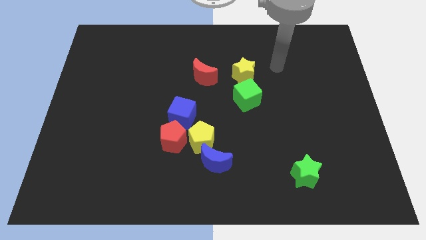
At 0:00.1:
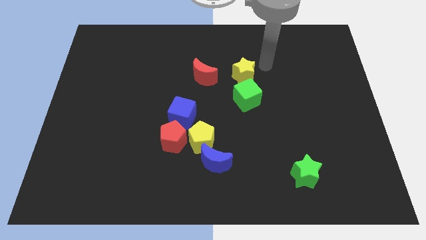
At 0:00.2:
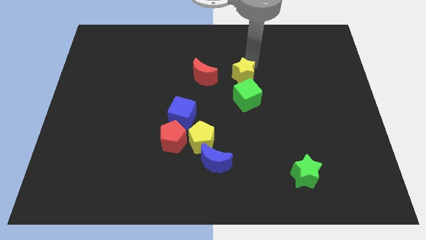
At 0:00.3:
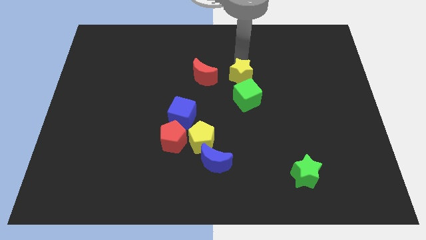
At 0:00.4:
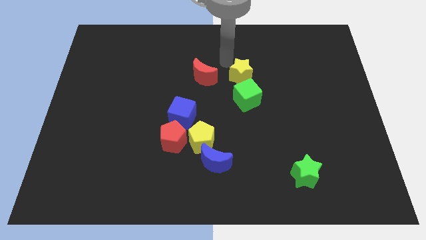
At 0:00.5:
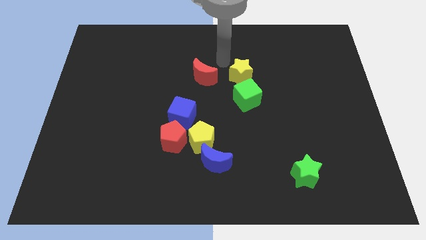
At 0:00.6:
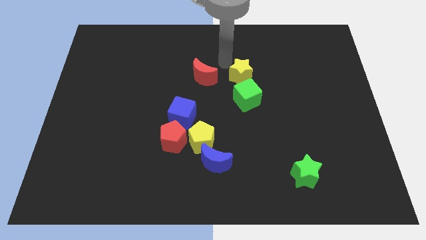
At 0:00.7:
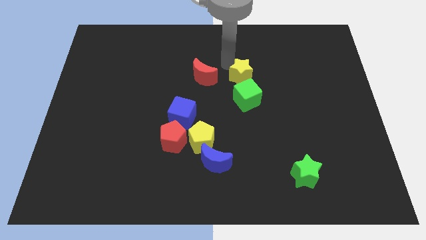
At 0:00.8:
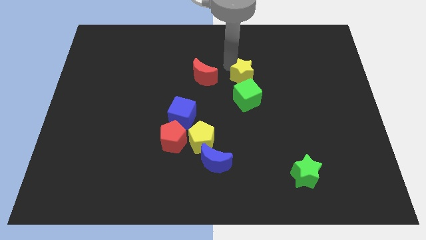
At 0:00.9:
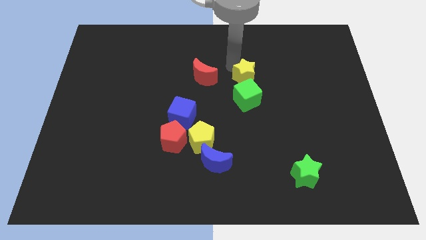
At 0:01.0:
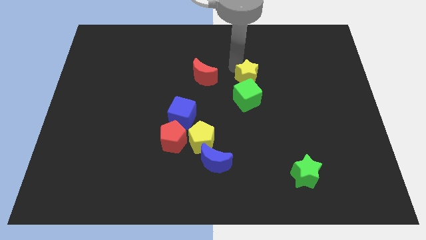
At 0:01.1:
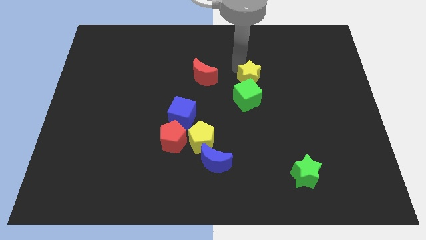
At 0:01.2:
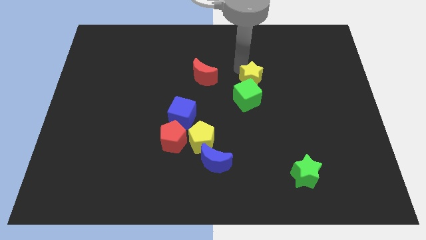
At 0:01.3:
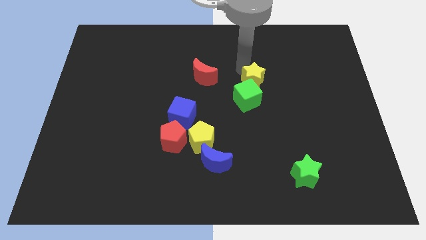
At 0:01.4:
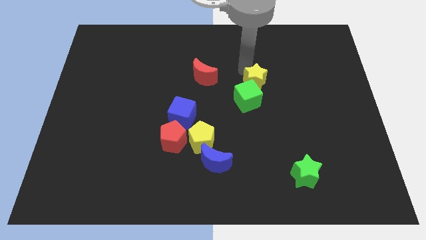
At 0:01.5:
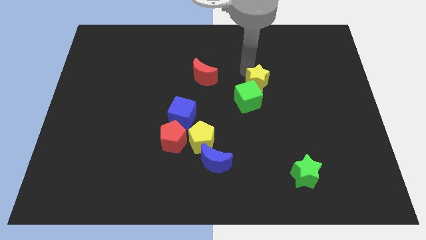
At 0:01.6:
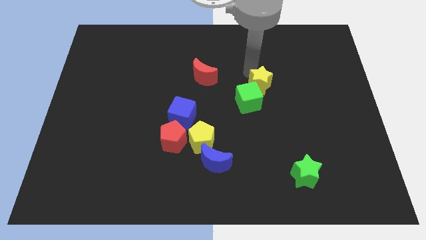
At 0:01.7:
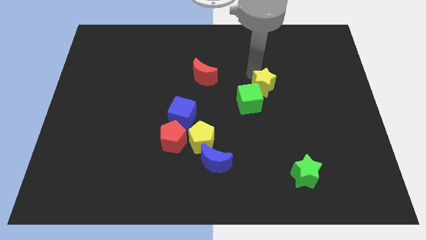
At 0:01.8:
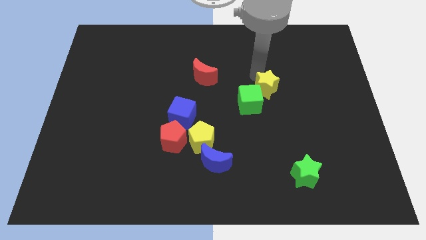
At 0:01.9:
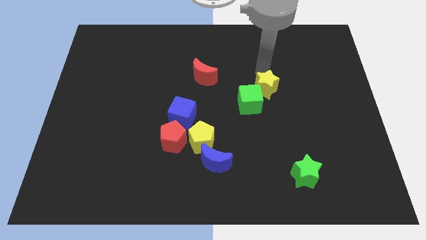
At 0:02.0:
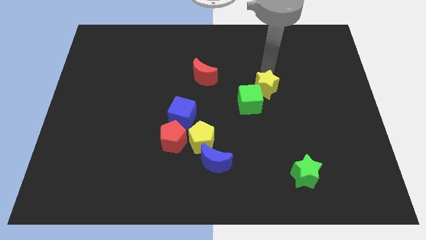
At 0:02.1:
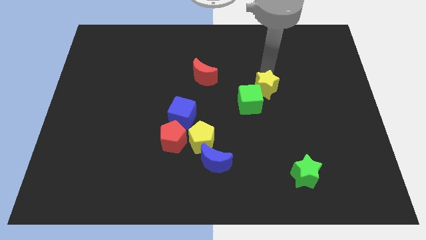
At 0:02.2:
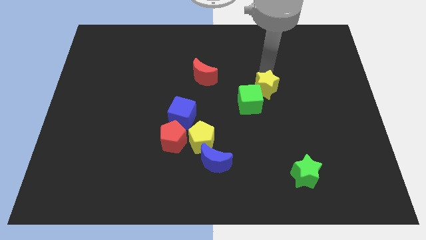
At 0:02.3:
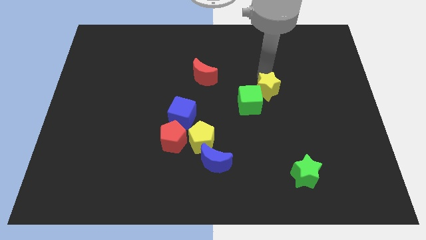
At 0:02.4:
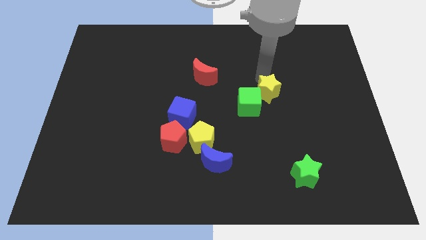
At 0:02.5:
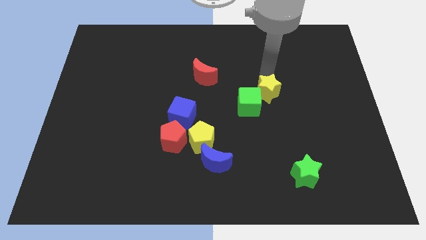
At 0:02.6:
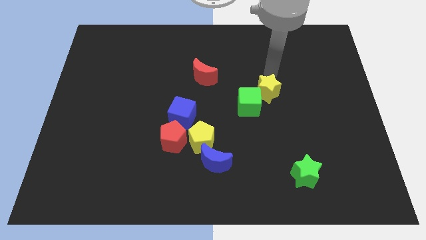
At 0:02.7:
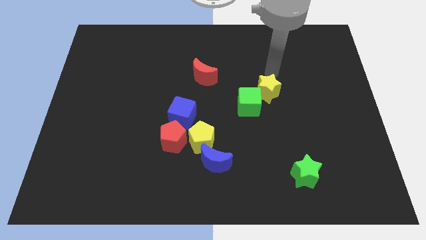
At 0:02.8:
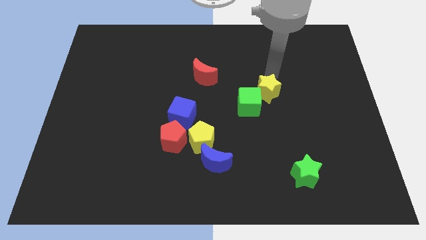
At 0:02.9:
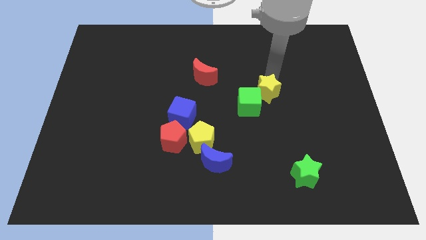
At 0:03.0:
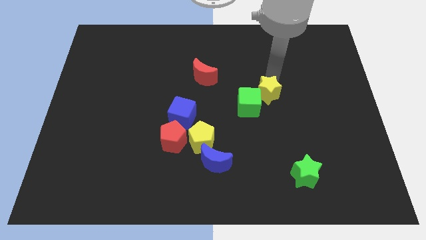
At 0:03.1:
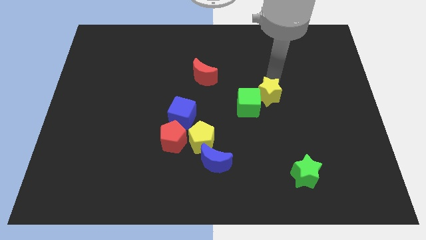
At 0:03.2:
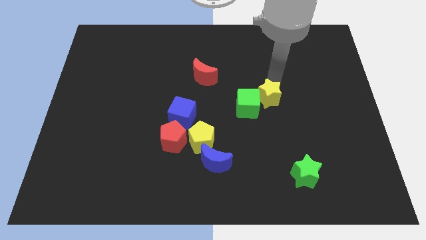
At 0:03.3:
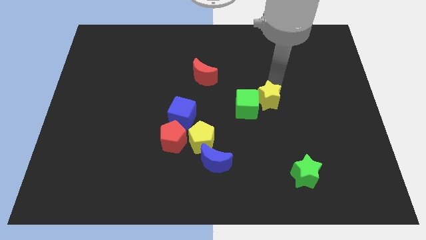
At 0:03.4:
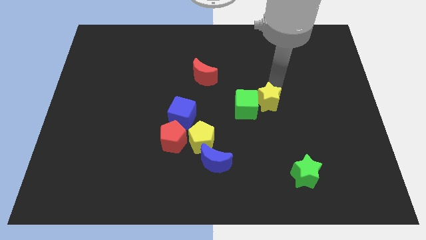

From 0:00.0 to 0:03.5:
slide the yellow star down a little bit

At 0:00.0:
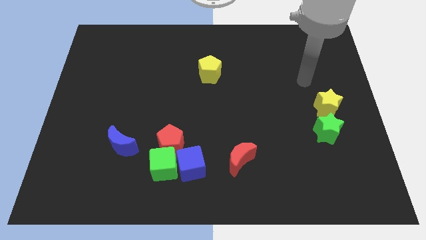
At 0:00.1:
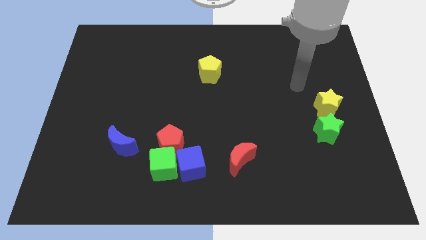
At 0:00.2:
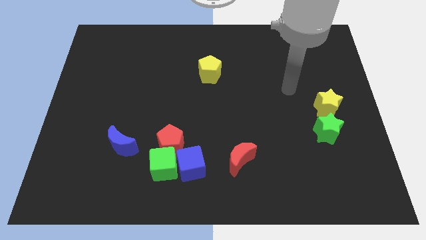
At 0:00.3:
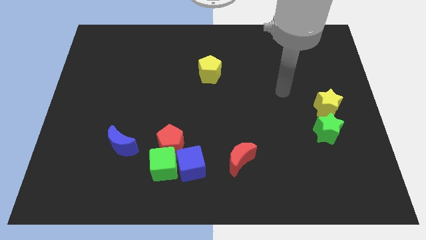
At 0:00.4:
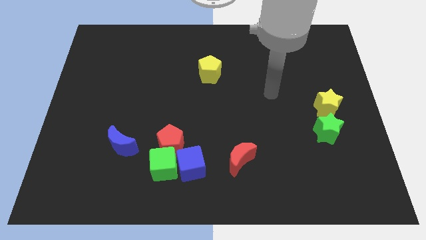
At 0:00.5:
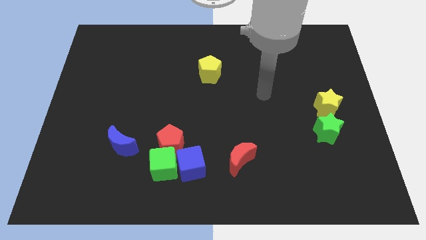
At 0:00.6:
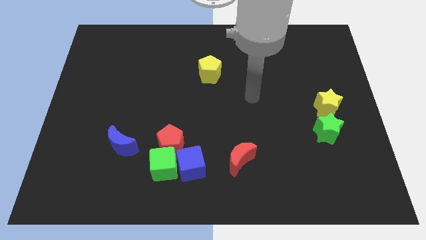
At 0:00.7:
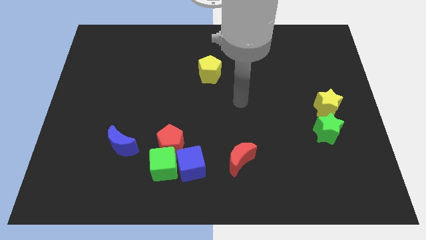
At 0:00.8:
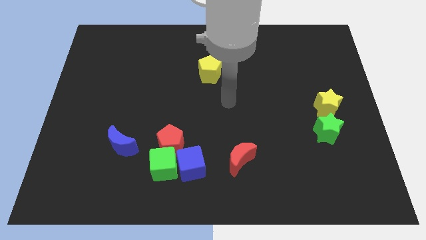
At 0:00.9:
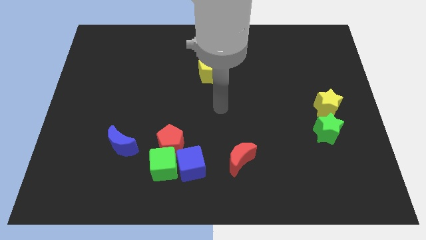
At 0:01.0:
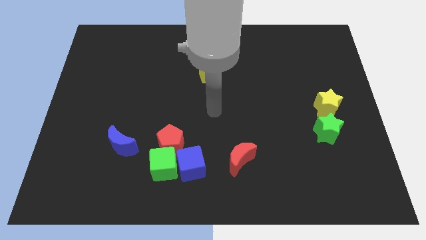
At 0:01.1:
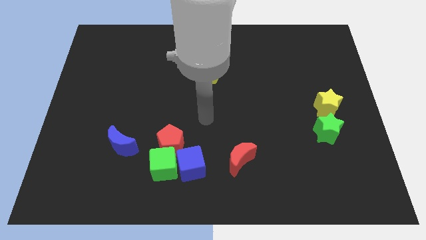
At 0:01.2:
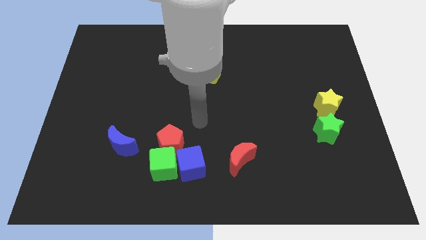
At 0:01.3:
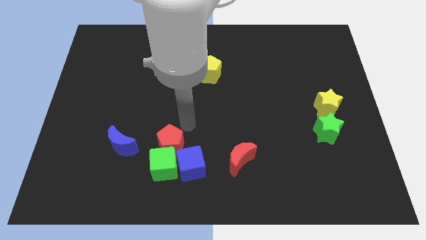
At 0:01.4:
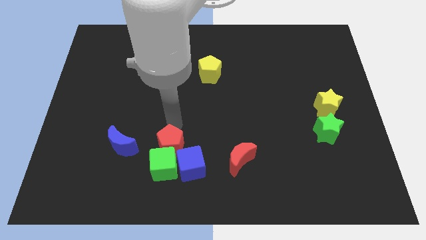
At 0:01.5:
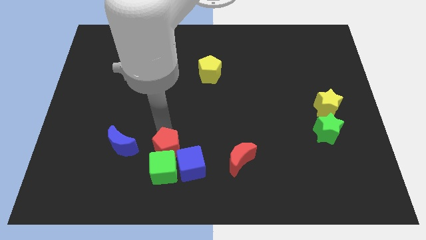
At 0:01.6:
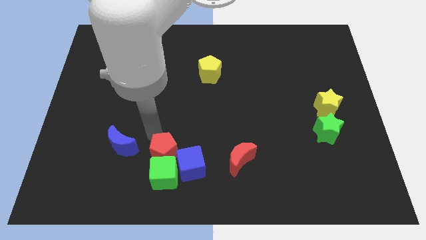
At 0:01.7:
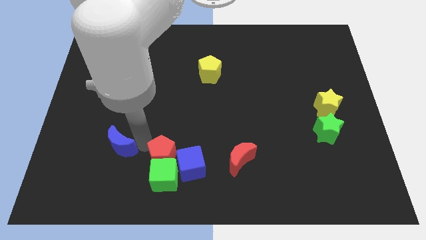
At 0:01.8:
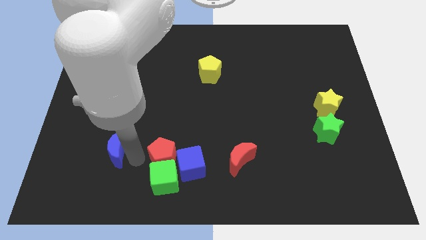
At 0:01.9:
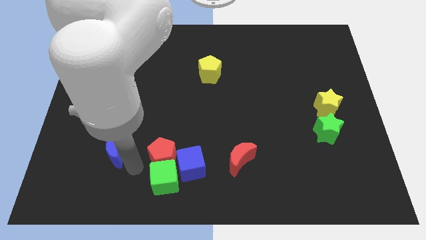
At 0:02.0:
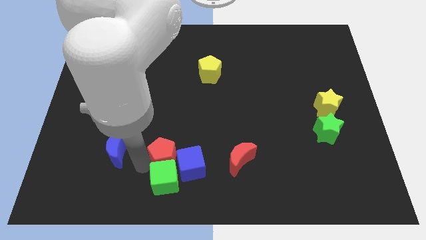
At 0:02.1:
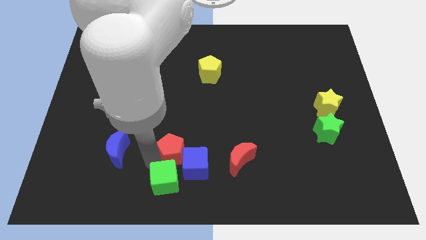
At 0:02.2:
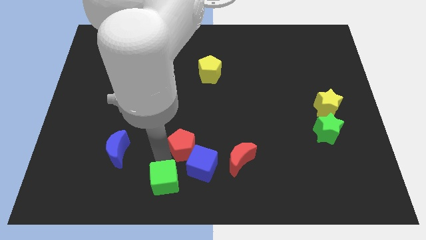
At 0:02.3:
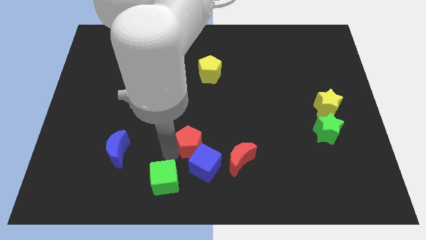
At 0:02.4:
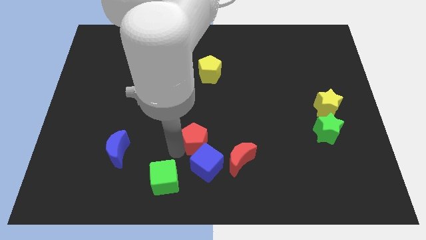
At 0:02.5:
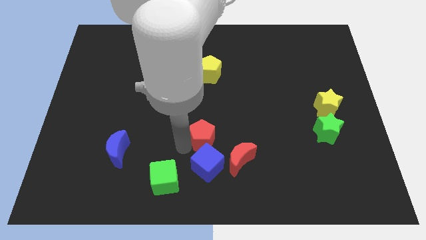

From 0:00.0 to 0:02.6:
slide the red pentagon to the right a little bit

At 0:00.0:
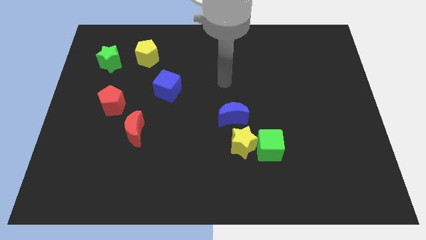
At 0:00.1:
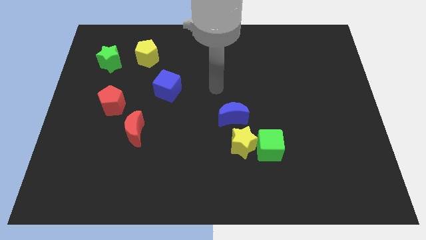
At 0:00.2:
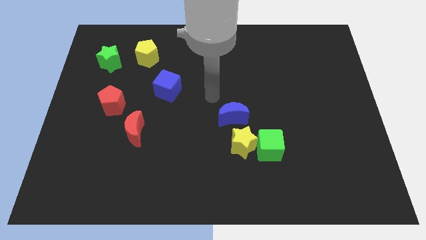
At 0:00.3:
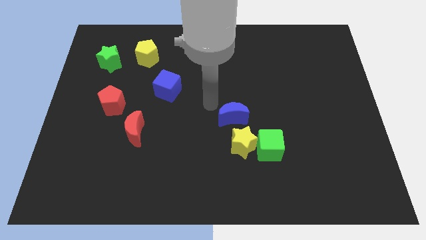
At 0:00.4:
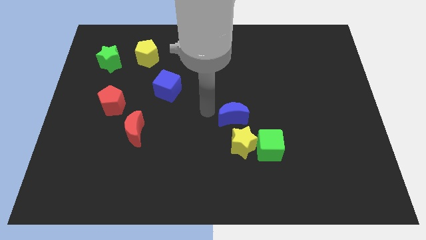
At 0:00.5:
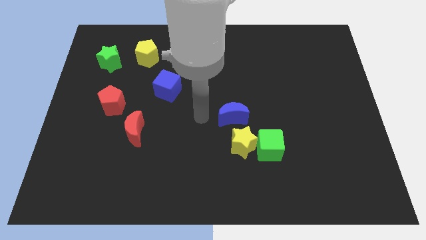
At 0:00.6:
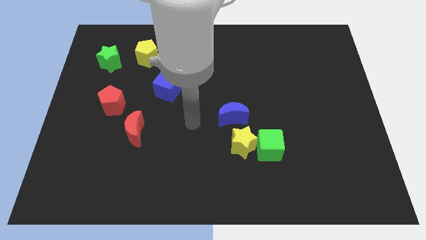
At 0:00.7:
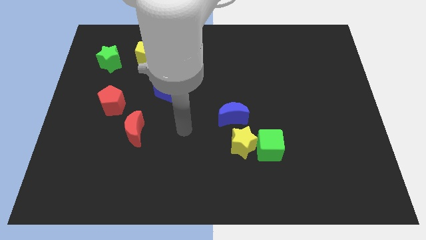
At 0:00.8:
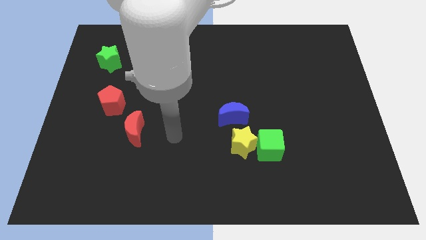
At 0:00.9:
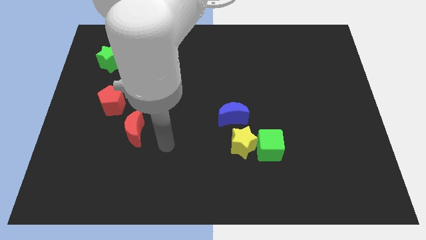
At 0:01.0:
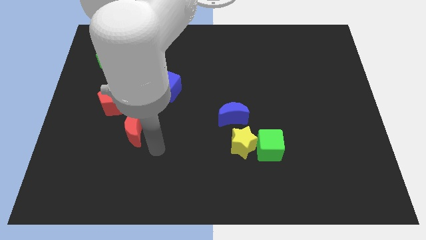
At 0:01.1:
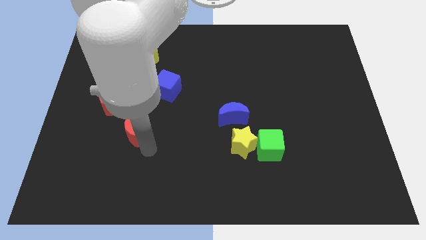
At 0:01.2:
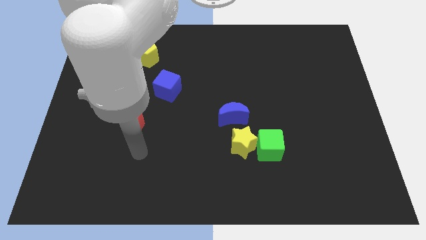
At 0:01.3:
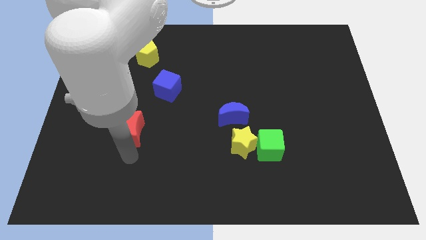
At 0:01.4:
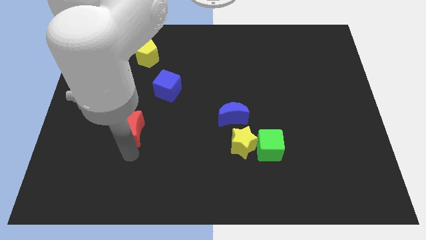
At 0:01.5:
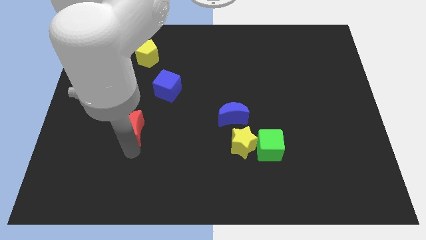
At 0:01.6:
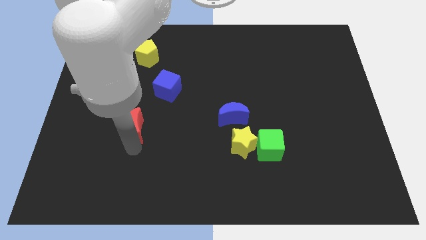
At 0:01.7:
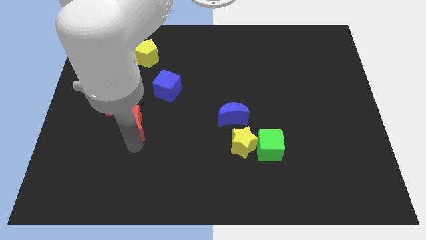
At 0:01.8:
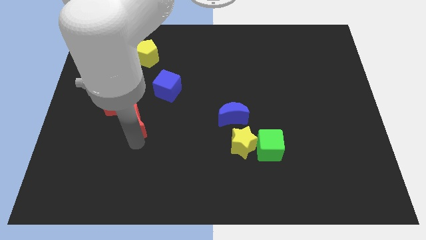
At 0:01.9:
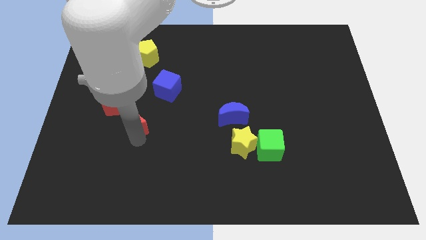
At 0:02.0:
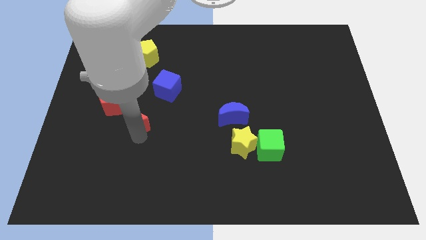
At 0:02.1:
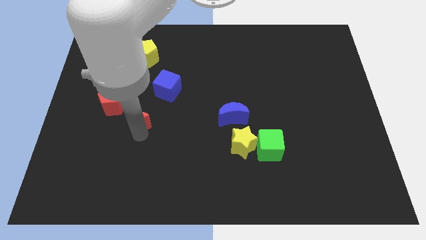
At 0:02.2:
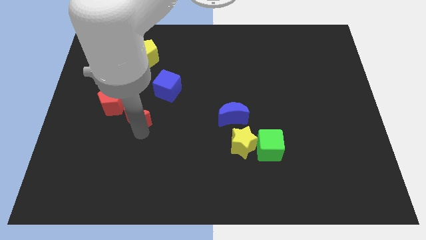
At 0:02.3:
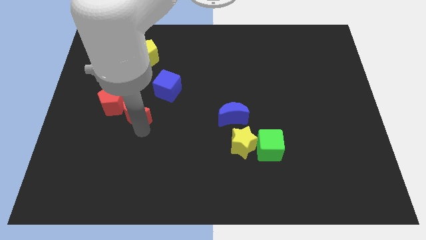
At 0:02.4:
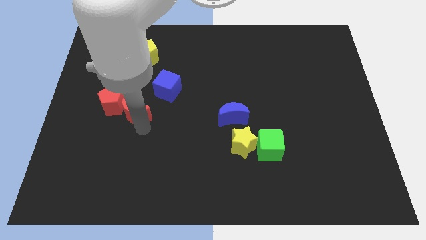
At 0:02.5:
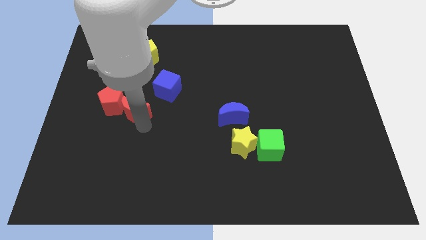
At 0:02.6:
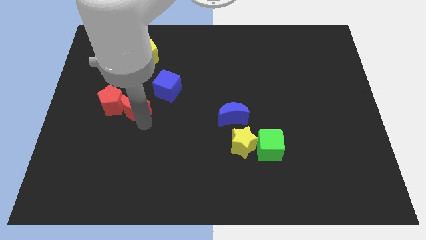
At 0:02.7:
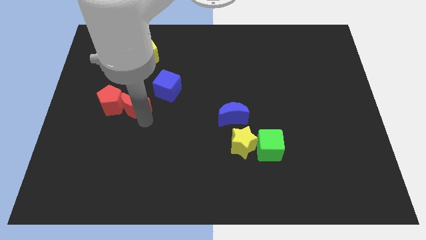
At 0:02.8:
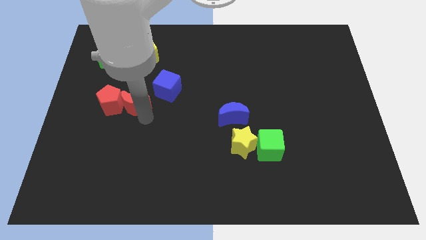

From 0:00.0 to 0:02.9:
slightly slide the red moon up
